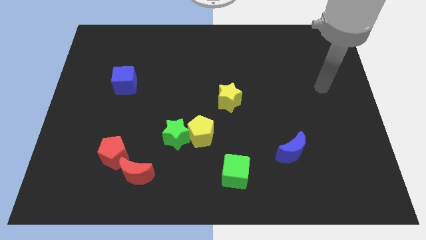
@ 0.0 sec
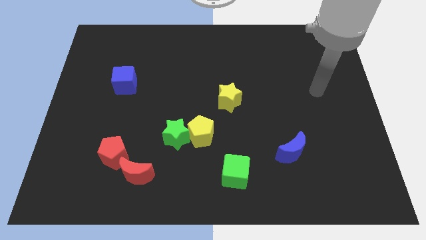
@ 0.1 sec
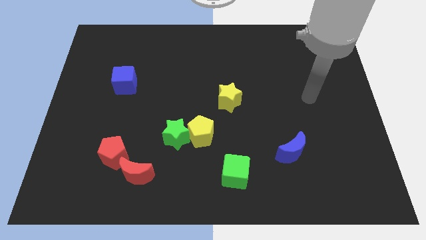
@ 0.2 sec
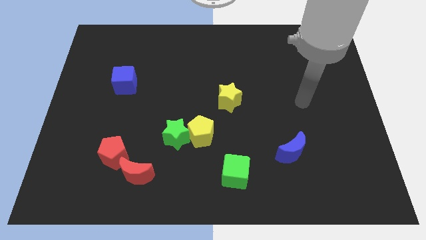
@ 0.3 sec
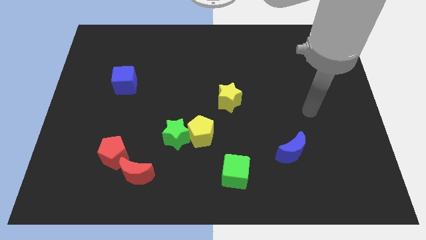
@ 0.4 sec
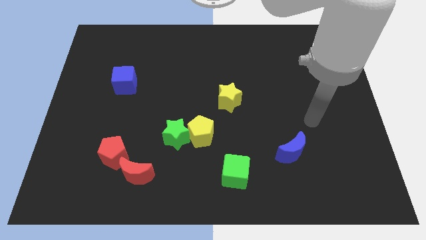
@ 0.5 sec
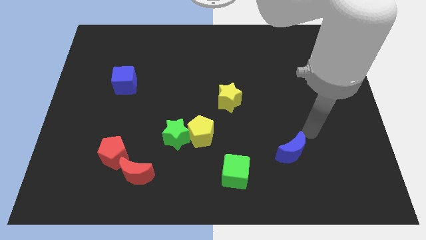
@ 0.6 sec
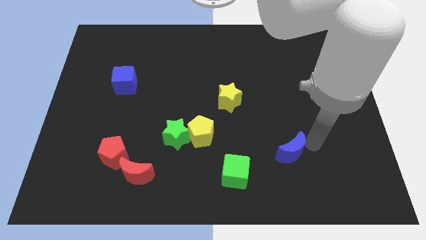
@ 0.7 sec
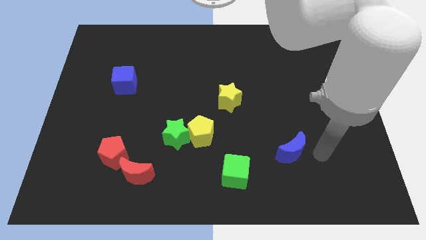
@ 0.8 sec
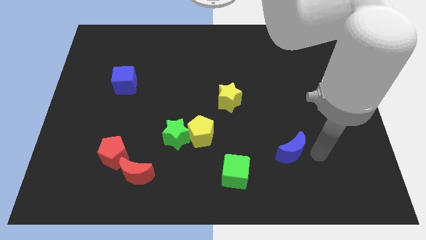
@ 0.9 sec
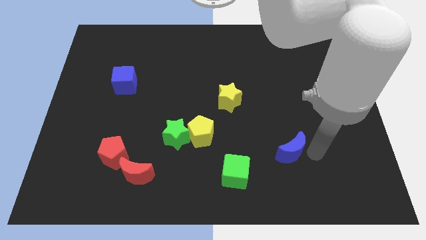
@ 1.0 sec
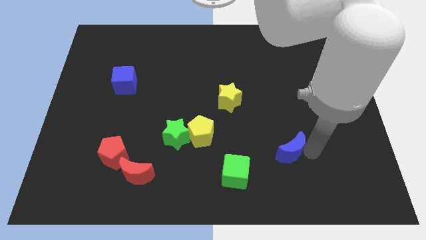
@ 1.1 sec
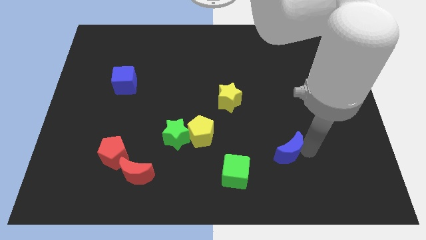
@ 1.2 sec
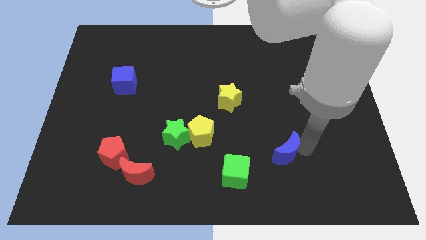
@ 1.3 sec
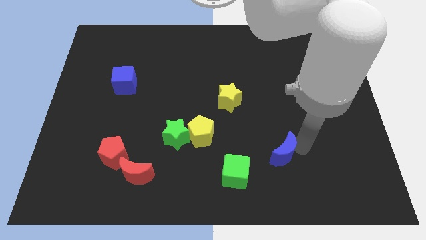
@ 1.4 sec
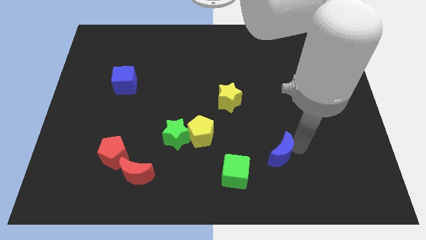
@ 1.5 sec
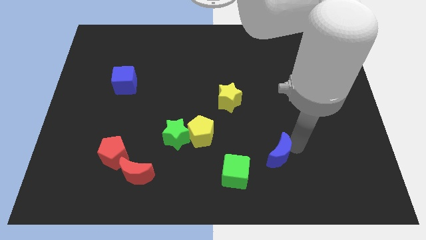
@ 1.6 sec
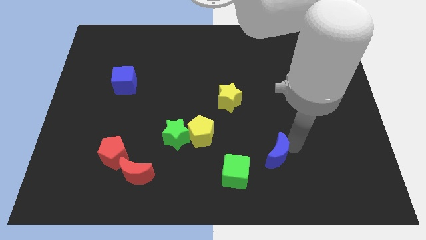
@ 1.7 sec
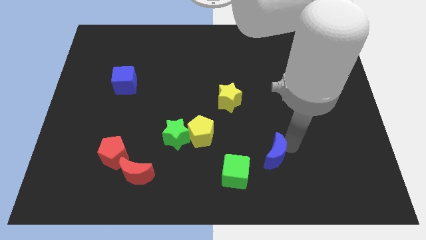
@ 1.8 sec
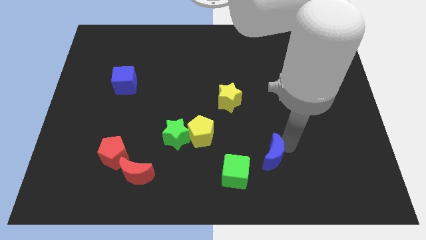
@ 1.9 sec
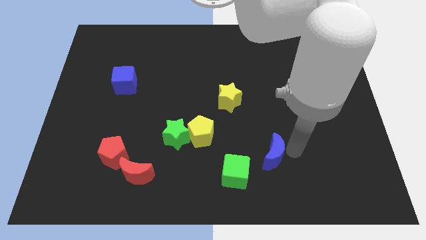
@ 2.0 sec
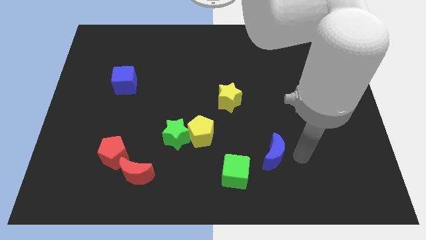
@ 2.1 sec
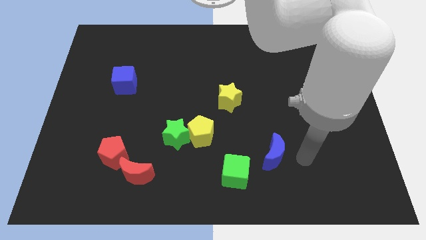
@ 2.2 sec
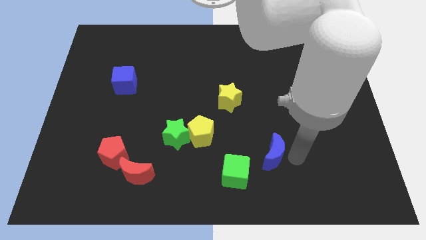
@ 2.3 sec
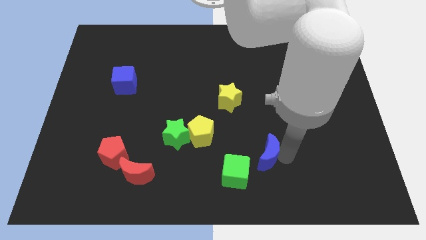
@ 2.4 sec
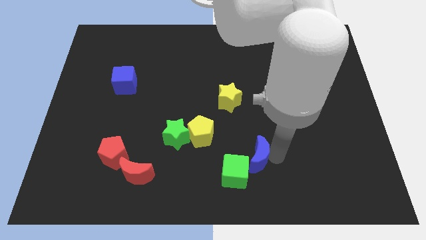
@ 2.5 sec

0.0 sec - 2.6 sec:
slide the blue moon to the left somewhat

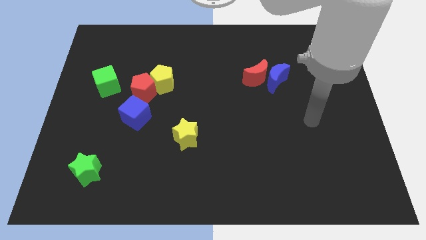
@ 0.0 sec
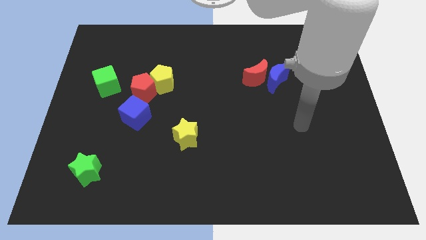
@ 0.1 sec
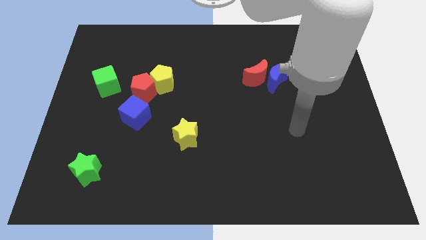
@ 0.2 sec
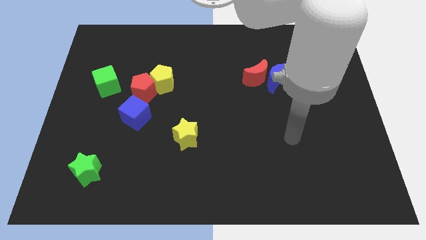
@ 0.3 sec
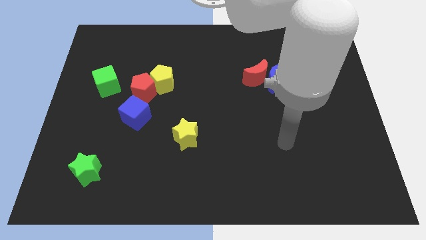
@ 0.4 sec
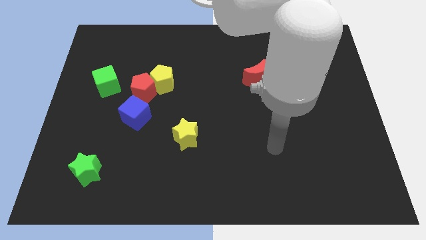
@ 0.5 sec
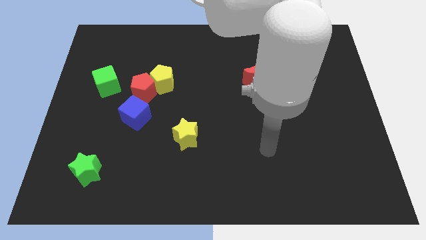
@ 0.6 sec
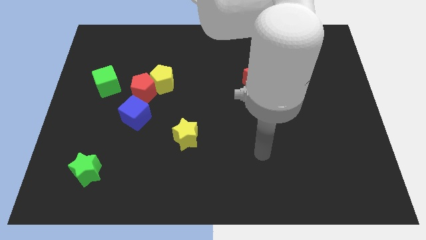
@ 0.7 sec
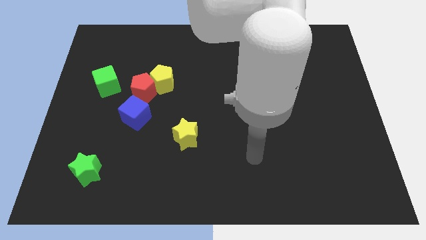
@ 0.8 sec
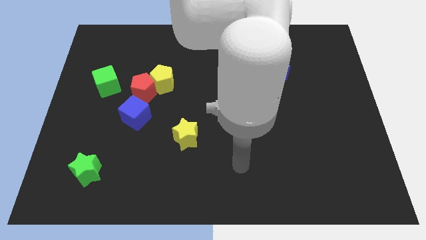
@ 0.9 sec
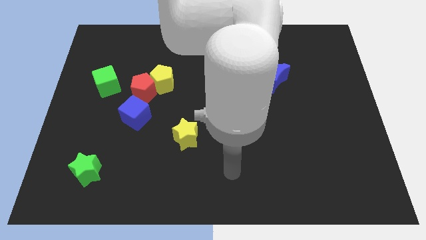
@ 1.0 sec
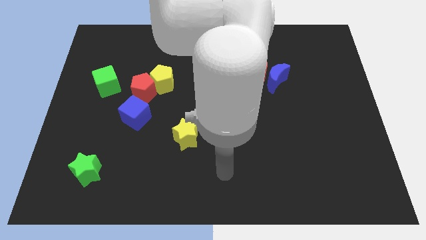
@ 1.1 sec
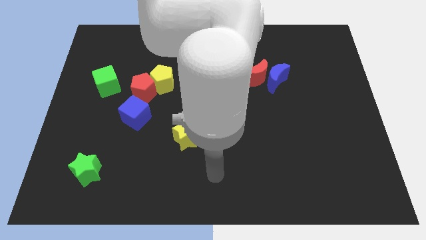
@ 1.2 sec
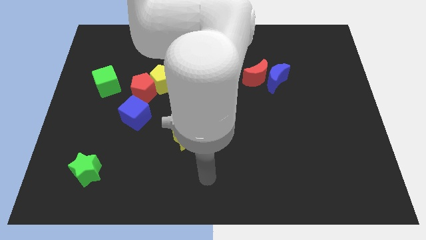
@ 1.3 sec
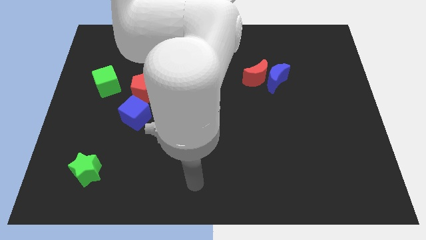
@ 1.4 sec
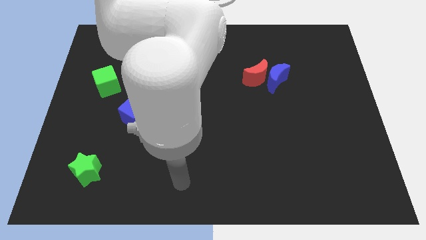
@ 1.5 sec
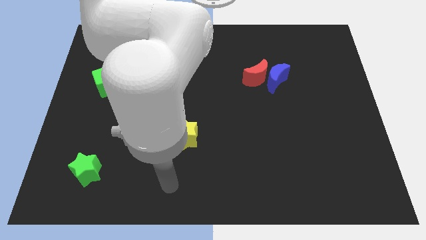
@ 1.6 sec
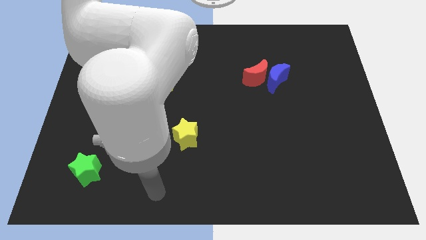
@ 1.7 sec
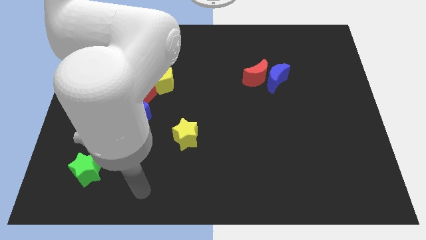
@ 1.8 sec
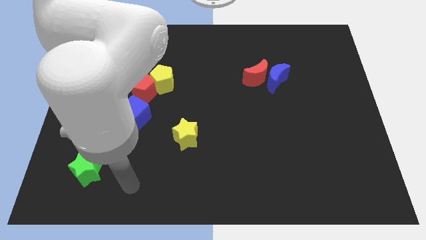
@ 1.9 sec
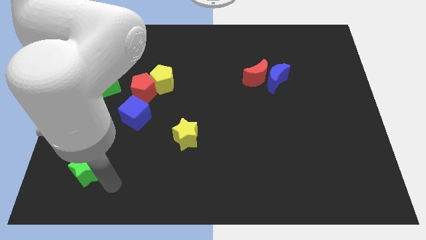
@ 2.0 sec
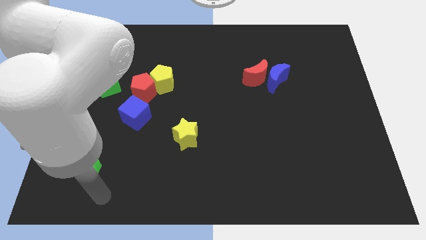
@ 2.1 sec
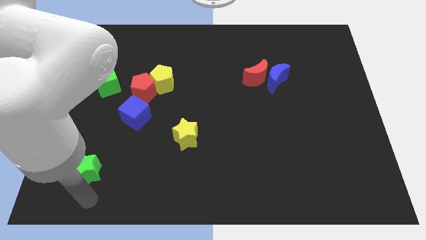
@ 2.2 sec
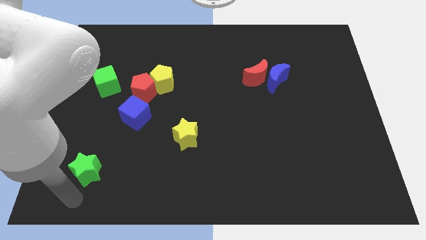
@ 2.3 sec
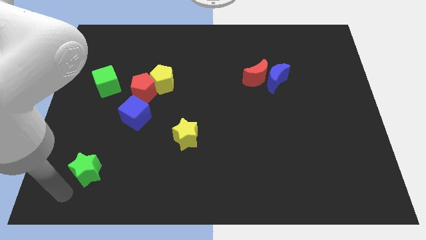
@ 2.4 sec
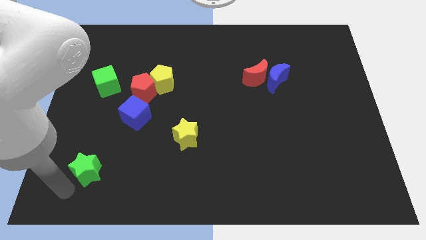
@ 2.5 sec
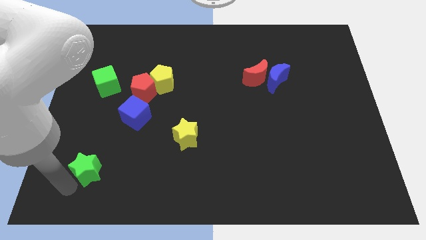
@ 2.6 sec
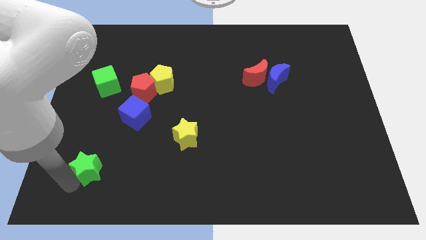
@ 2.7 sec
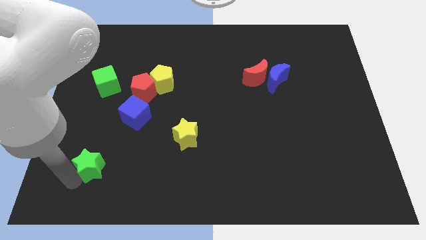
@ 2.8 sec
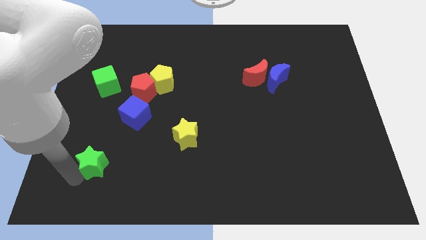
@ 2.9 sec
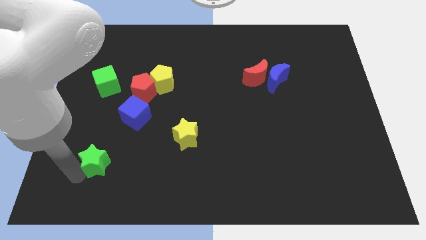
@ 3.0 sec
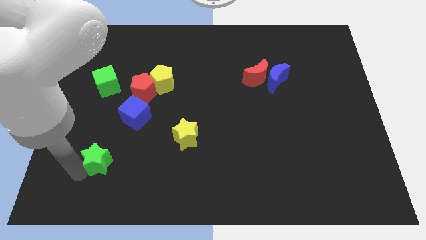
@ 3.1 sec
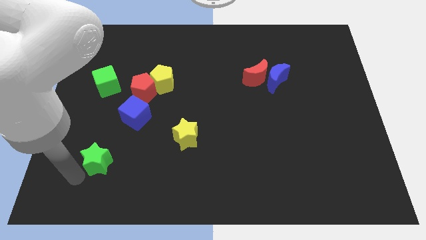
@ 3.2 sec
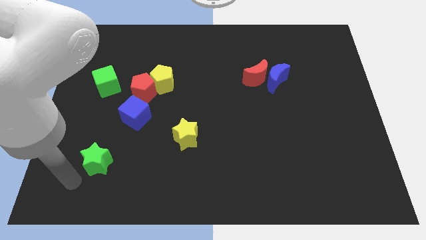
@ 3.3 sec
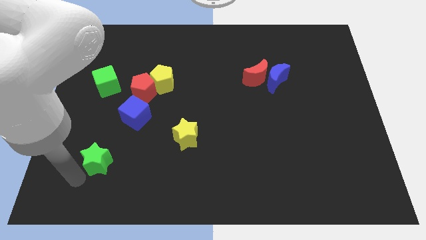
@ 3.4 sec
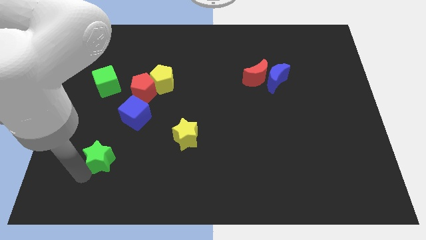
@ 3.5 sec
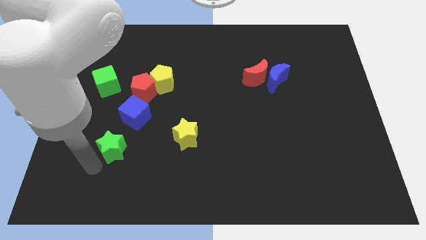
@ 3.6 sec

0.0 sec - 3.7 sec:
slightly move the green star upwards and to the right

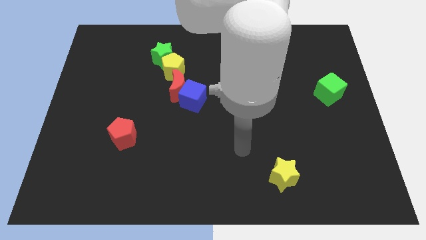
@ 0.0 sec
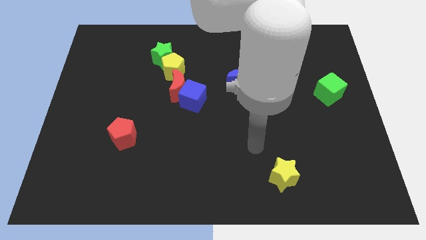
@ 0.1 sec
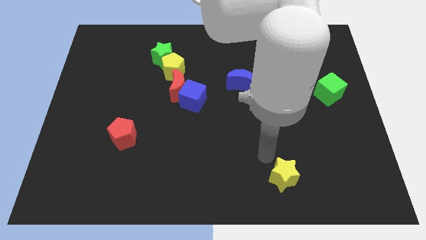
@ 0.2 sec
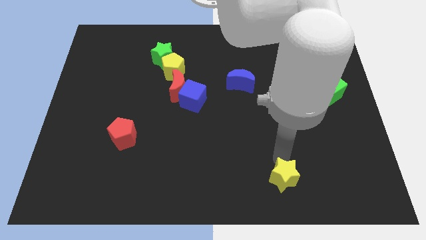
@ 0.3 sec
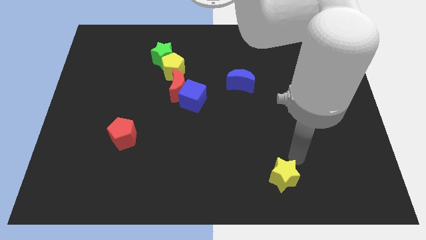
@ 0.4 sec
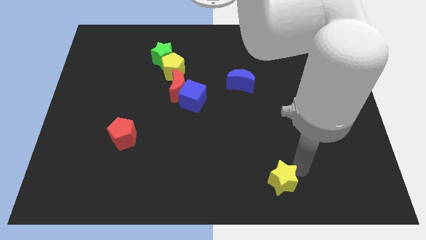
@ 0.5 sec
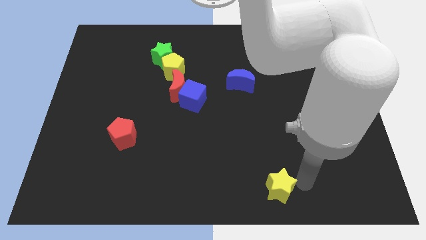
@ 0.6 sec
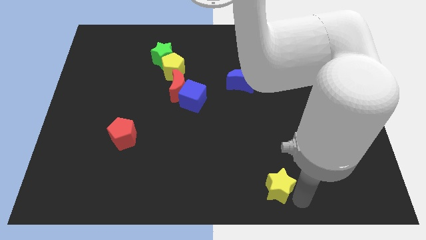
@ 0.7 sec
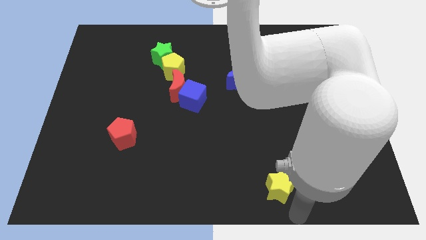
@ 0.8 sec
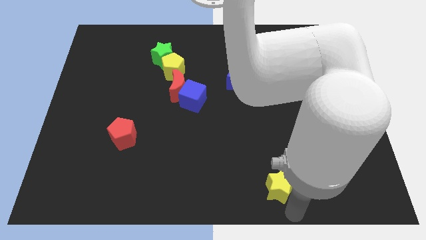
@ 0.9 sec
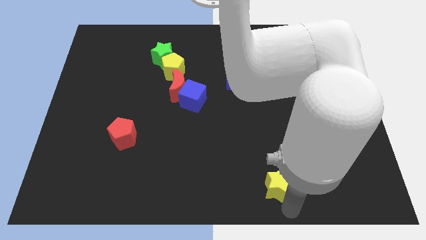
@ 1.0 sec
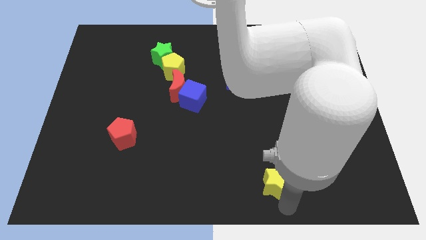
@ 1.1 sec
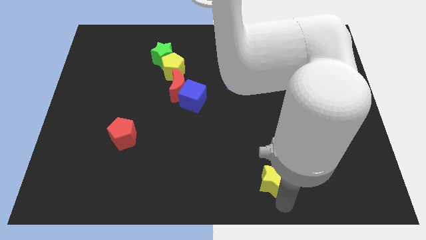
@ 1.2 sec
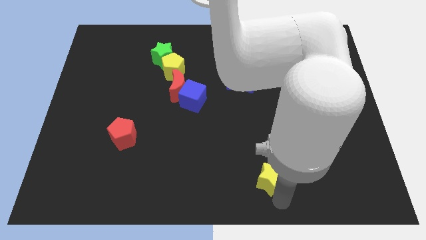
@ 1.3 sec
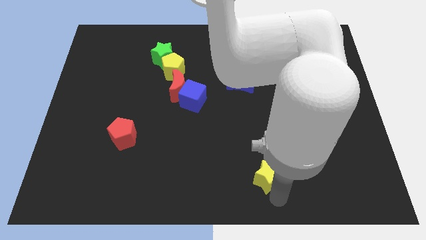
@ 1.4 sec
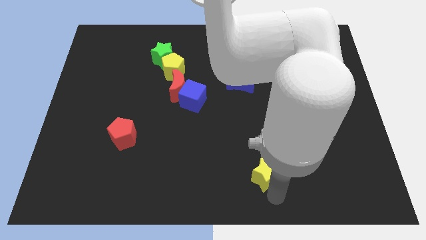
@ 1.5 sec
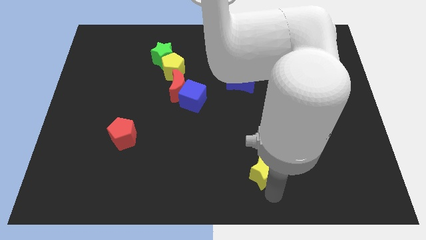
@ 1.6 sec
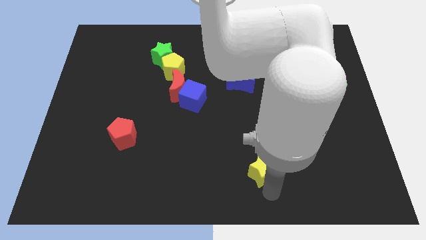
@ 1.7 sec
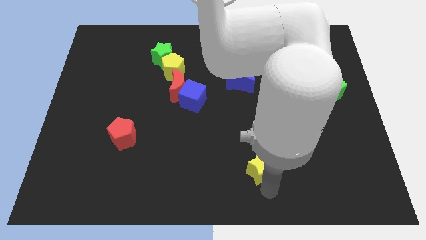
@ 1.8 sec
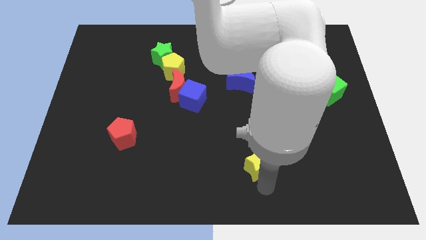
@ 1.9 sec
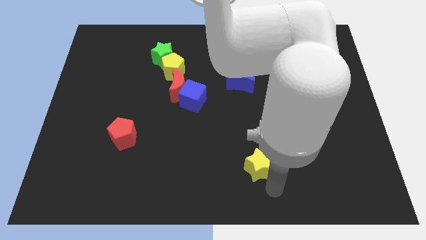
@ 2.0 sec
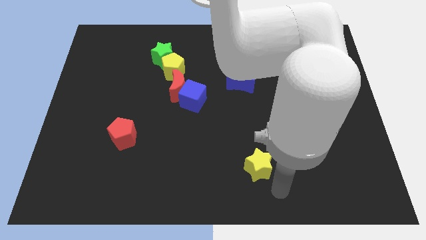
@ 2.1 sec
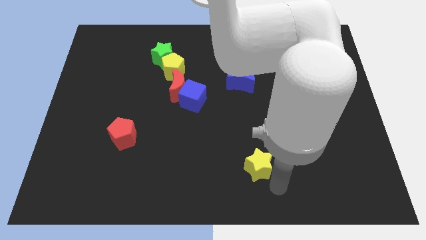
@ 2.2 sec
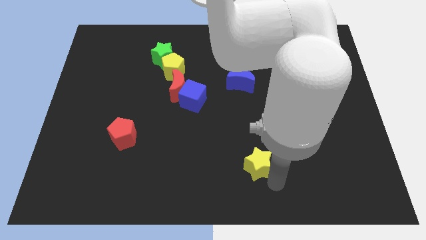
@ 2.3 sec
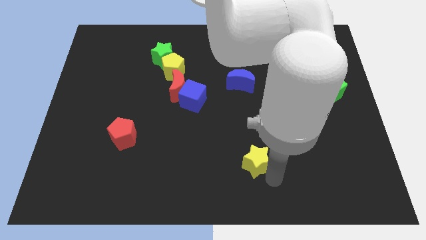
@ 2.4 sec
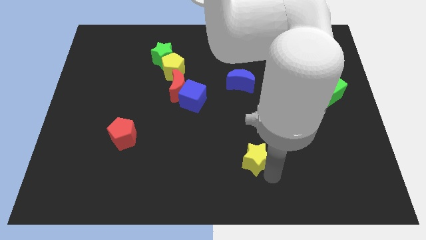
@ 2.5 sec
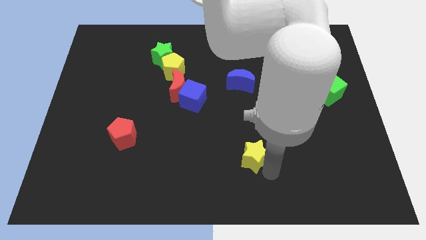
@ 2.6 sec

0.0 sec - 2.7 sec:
slightly slide the yellow star up and then to the left
